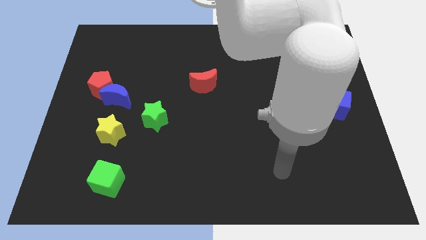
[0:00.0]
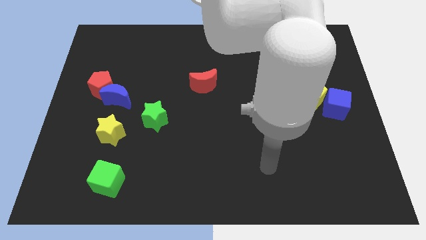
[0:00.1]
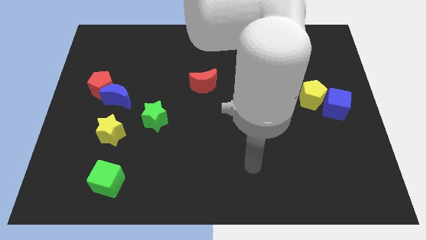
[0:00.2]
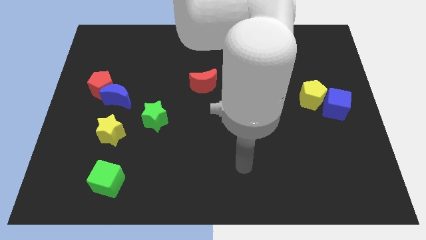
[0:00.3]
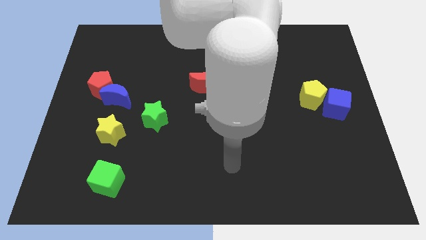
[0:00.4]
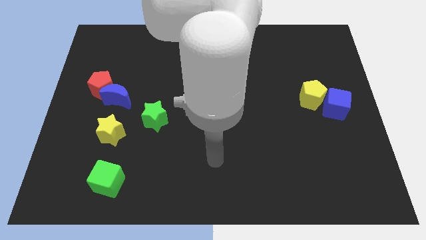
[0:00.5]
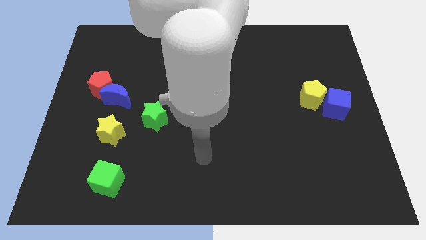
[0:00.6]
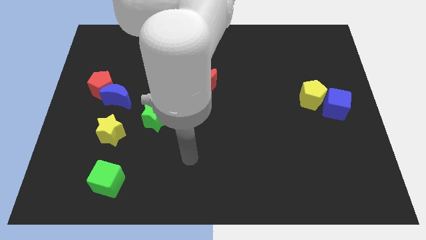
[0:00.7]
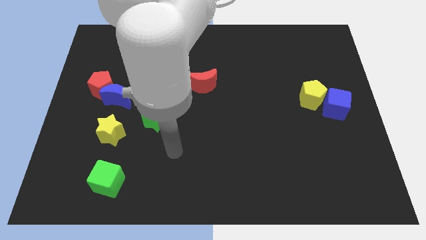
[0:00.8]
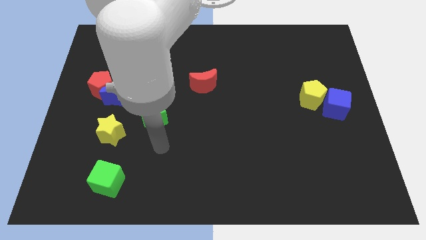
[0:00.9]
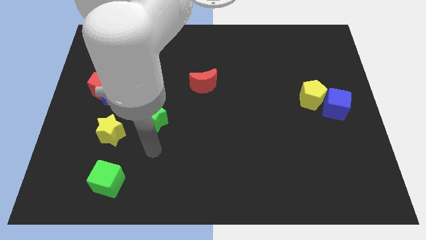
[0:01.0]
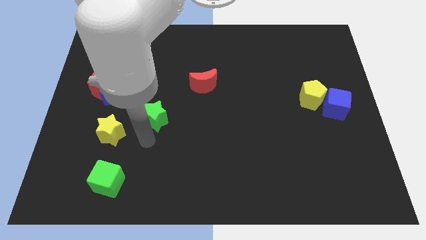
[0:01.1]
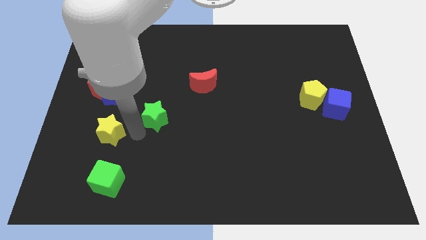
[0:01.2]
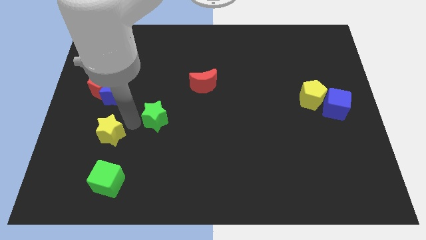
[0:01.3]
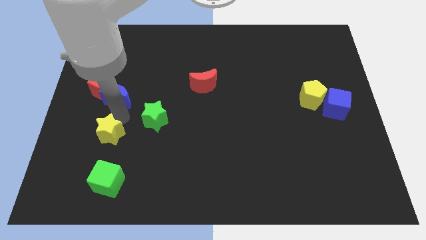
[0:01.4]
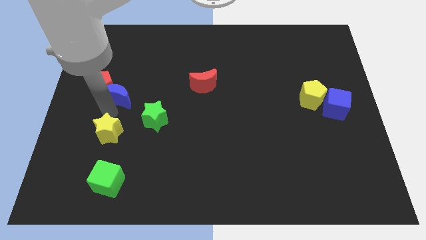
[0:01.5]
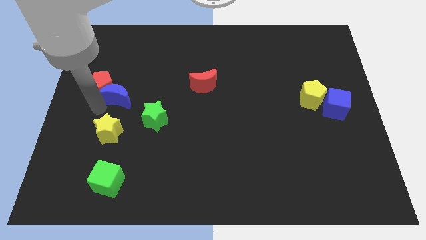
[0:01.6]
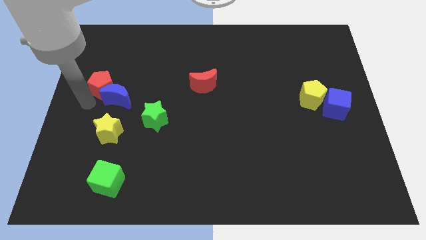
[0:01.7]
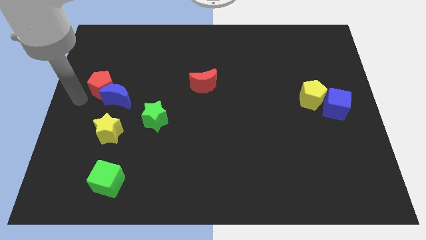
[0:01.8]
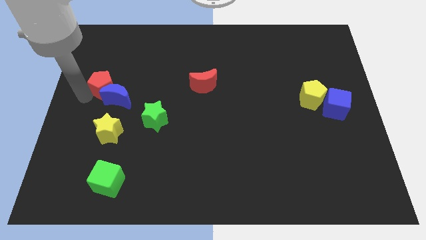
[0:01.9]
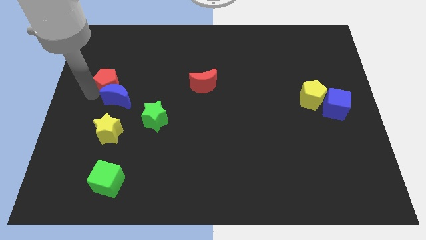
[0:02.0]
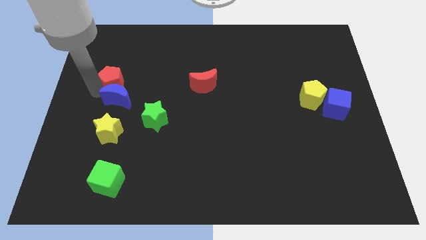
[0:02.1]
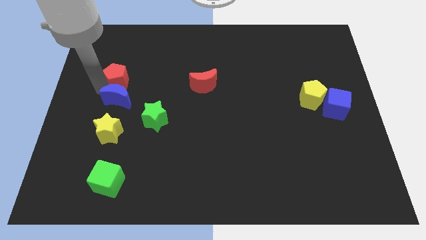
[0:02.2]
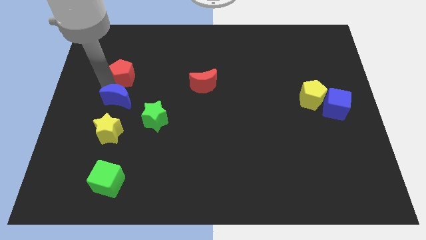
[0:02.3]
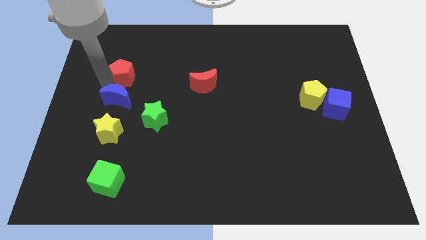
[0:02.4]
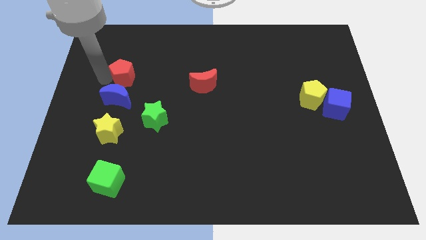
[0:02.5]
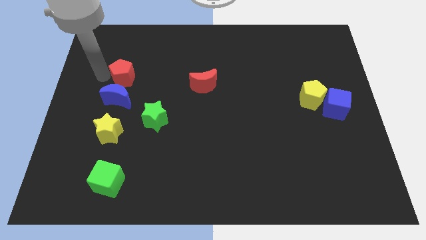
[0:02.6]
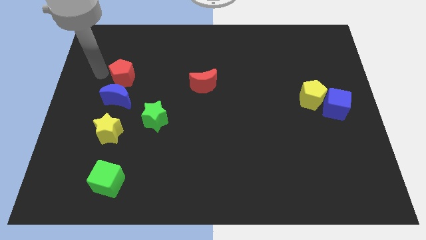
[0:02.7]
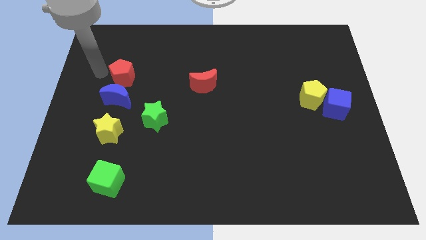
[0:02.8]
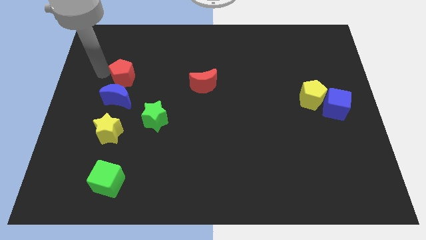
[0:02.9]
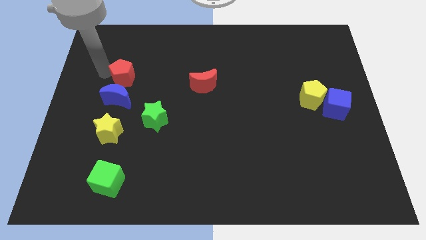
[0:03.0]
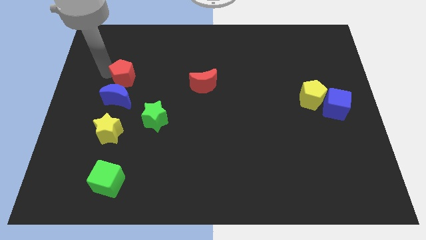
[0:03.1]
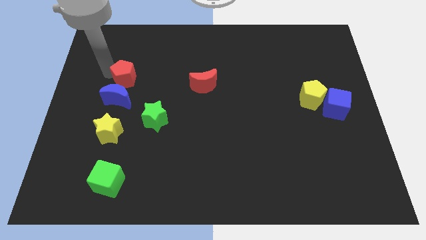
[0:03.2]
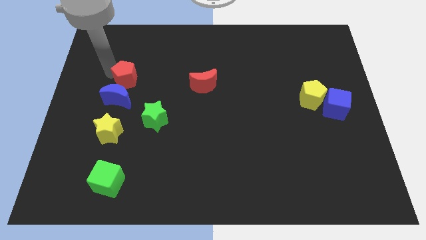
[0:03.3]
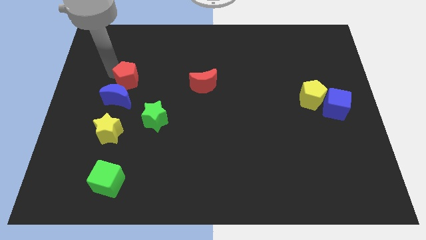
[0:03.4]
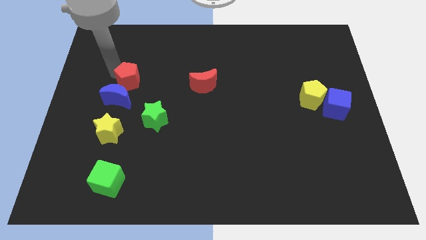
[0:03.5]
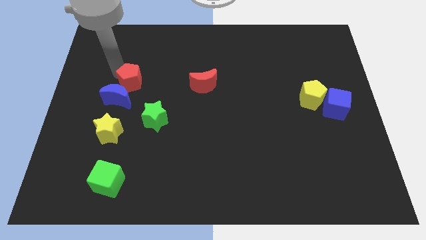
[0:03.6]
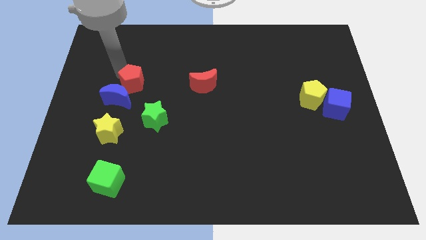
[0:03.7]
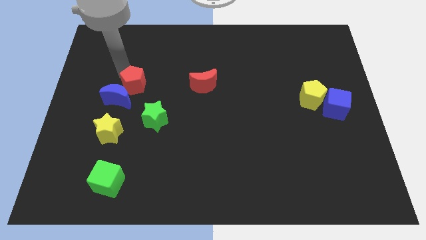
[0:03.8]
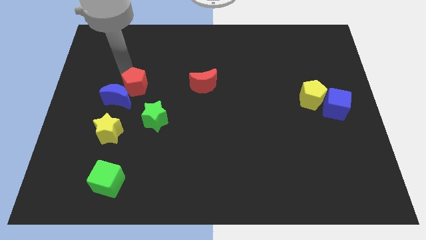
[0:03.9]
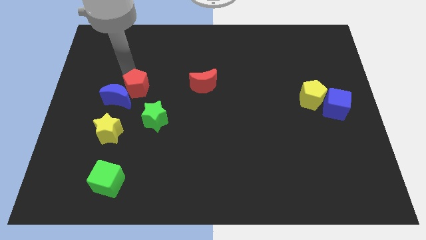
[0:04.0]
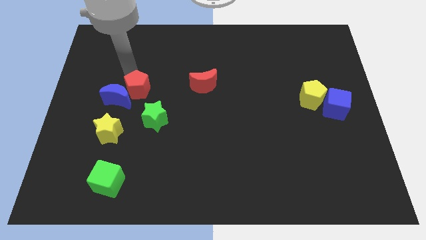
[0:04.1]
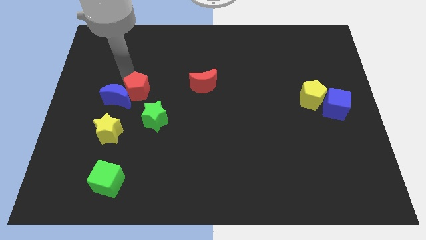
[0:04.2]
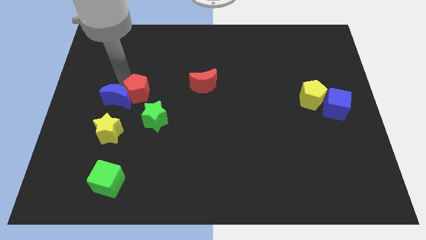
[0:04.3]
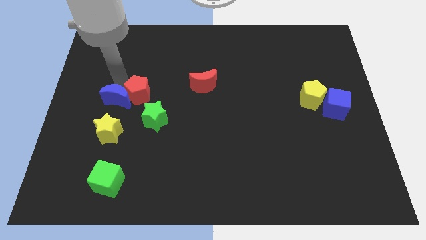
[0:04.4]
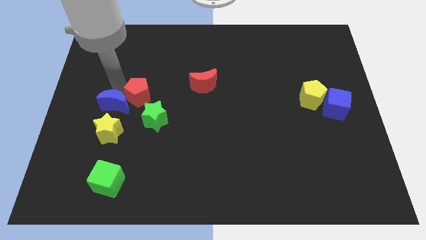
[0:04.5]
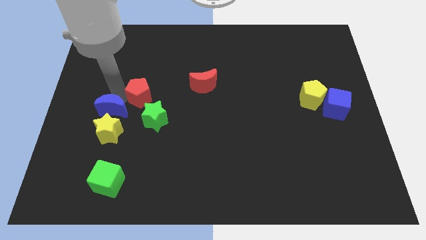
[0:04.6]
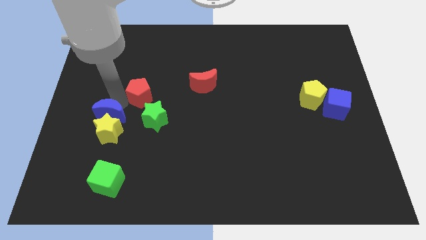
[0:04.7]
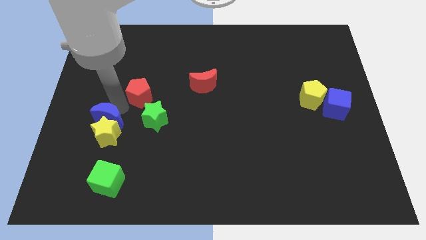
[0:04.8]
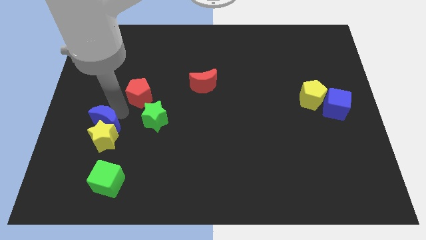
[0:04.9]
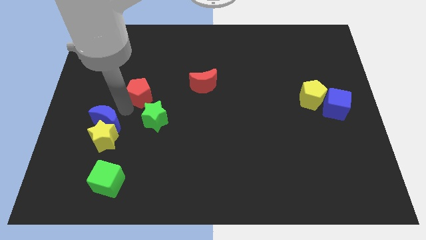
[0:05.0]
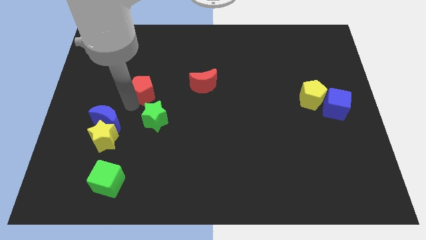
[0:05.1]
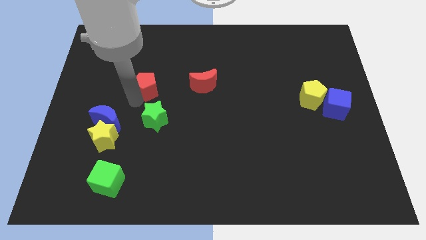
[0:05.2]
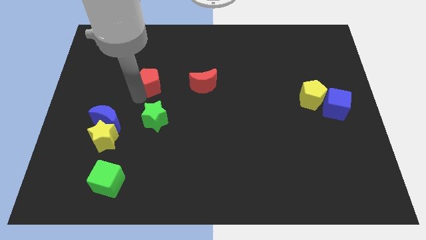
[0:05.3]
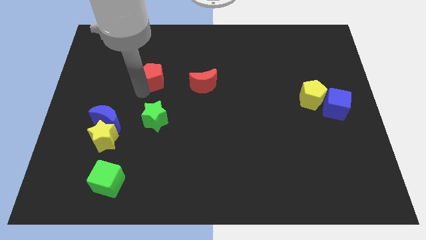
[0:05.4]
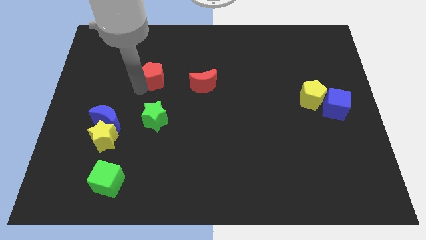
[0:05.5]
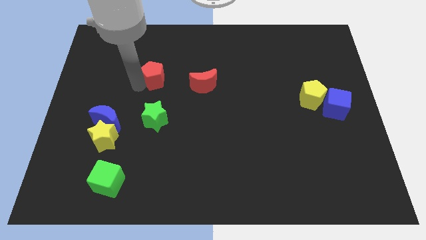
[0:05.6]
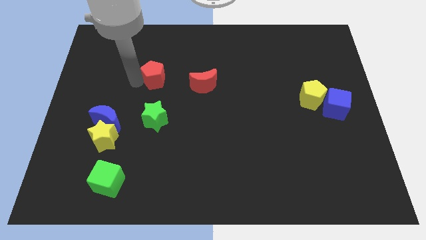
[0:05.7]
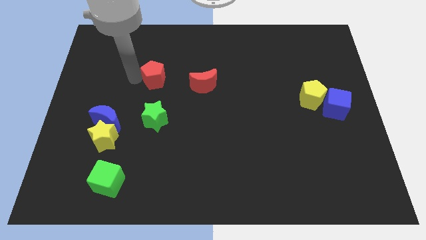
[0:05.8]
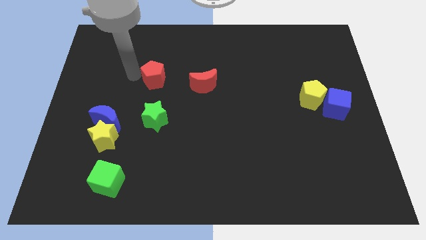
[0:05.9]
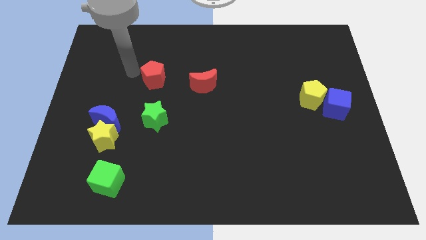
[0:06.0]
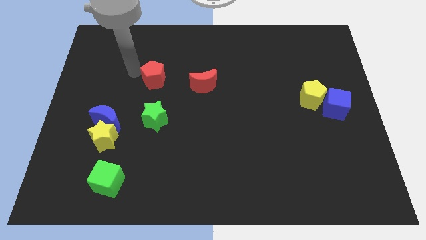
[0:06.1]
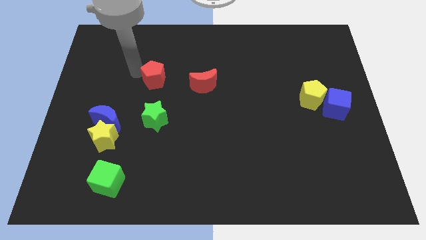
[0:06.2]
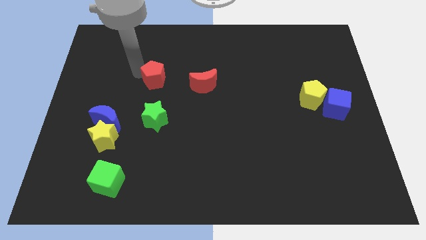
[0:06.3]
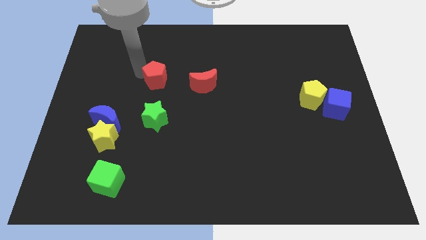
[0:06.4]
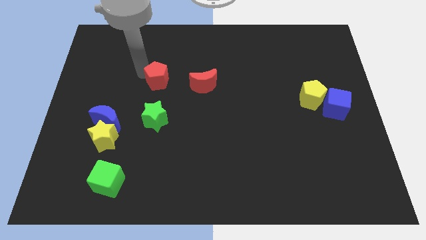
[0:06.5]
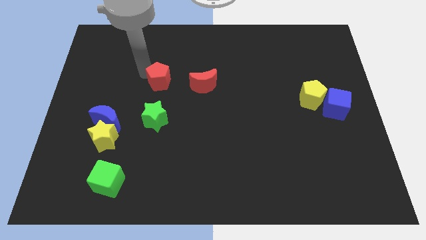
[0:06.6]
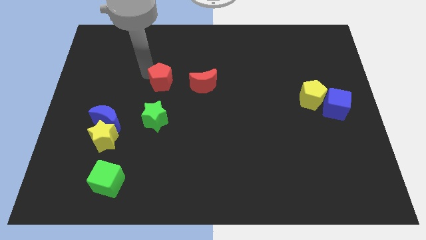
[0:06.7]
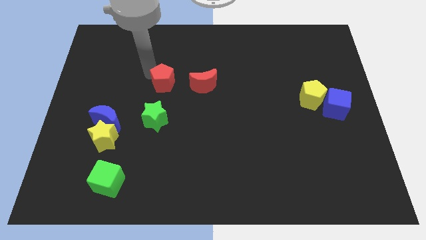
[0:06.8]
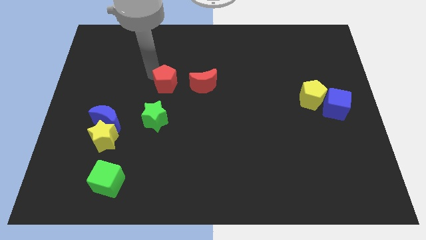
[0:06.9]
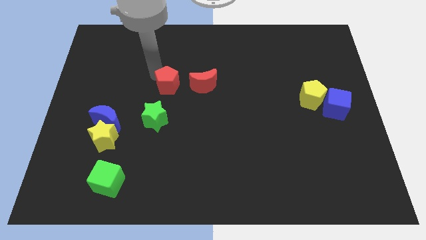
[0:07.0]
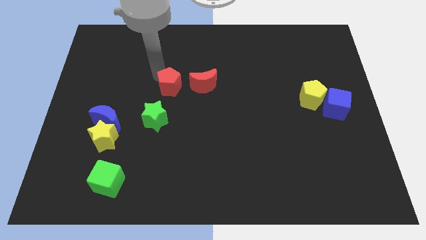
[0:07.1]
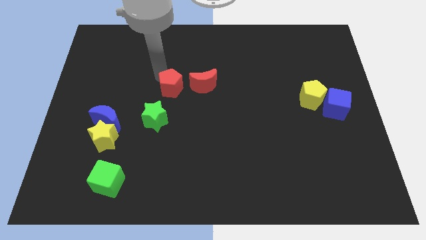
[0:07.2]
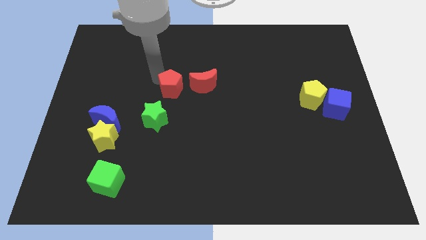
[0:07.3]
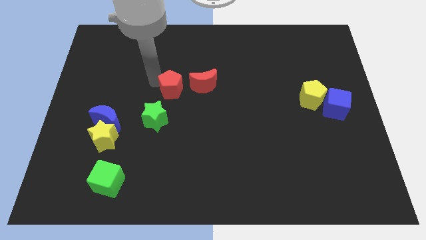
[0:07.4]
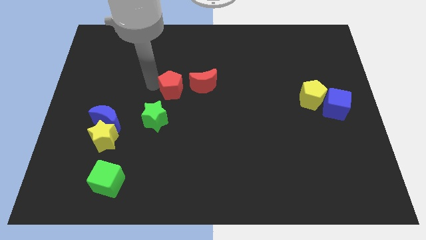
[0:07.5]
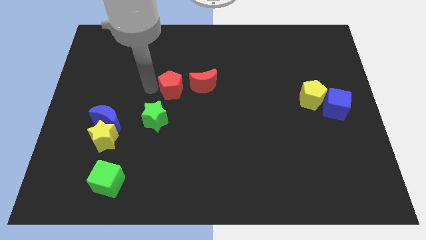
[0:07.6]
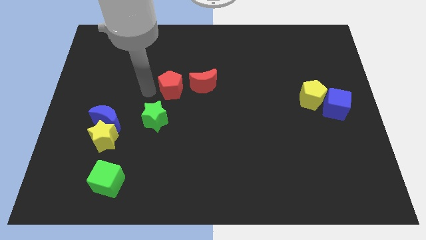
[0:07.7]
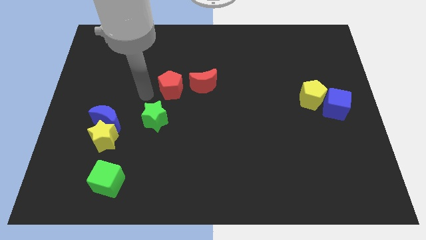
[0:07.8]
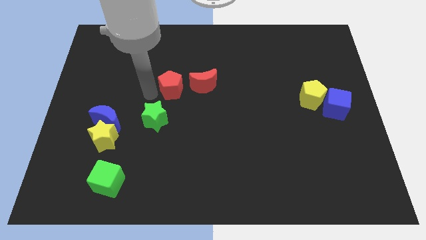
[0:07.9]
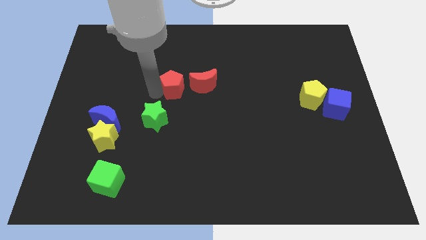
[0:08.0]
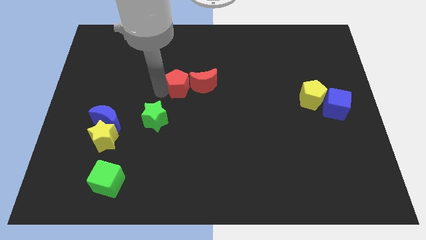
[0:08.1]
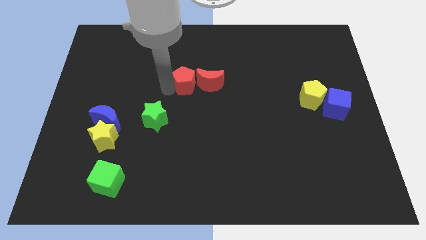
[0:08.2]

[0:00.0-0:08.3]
move the red pentagon next to the red moon
